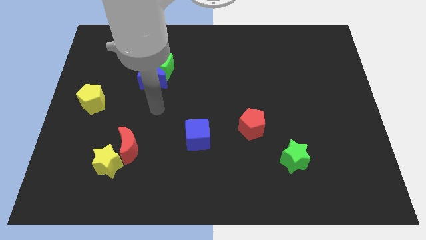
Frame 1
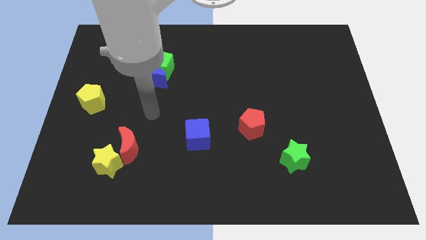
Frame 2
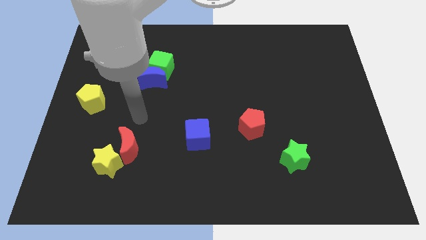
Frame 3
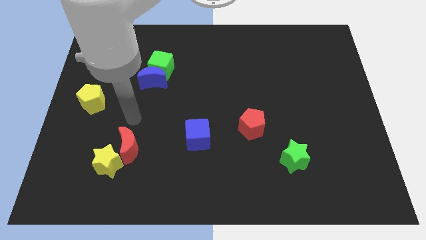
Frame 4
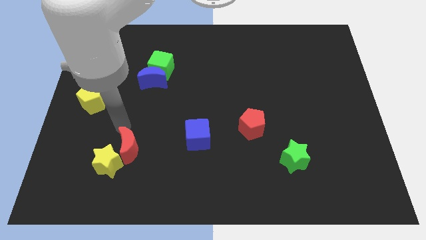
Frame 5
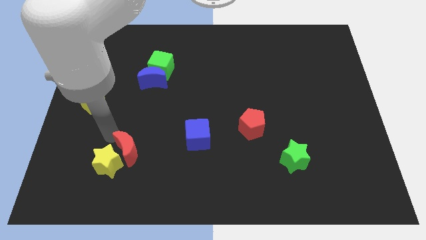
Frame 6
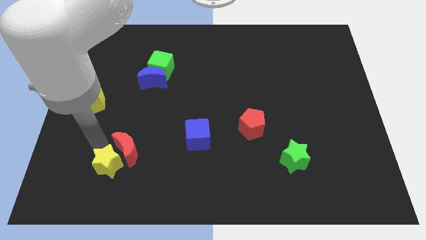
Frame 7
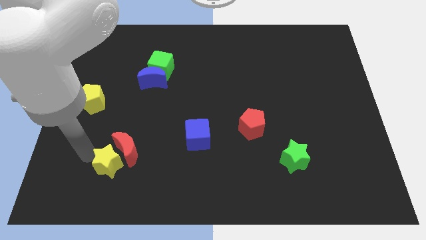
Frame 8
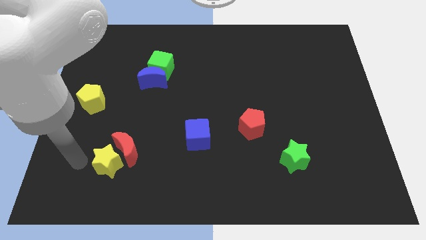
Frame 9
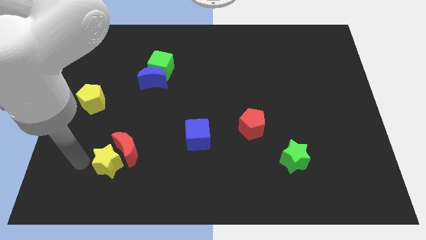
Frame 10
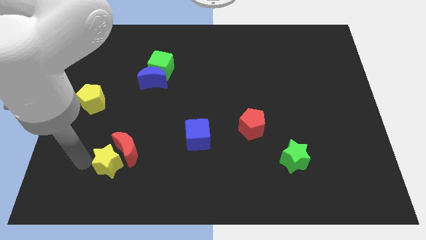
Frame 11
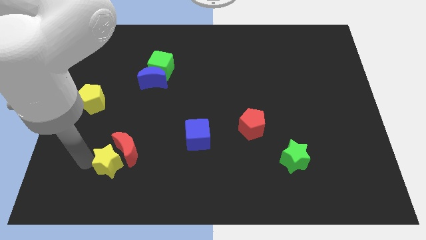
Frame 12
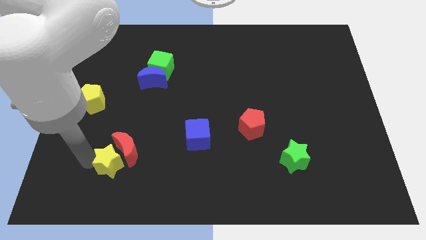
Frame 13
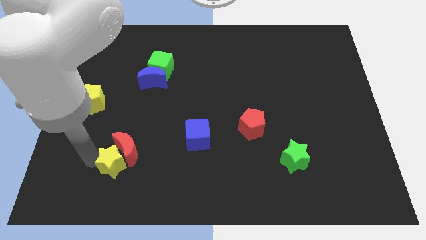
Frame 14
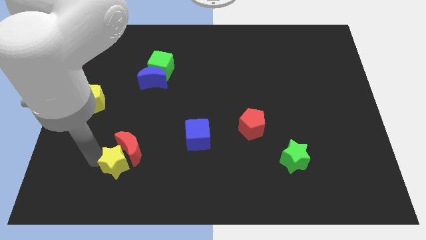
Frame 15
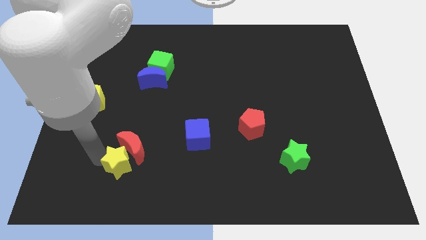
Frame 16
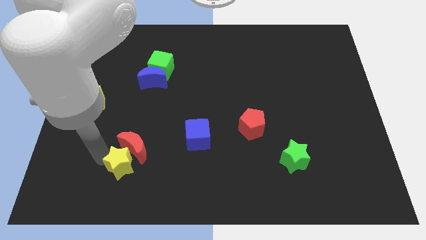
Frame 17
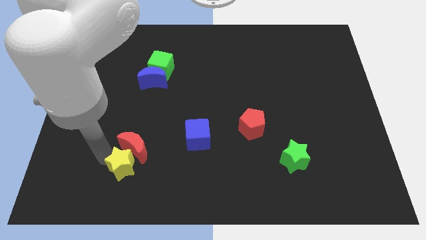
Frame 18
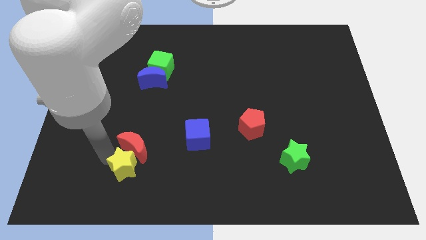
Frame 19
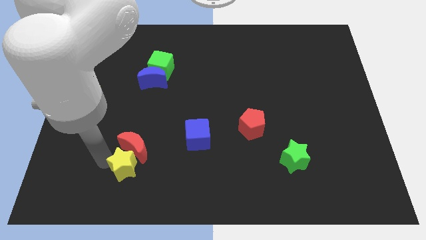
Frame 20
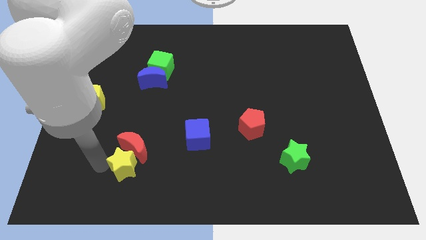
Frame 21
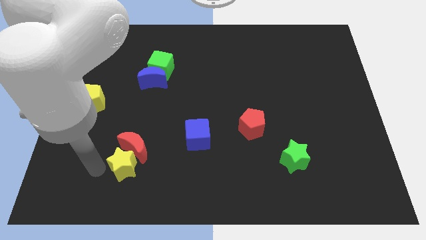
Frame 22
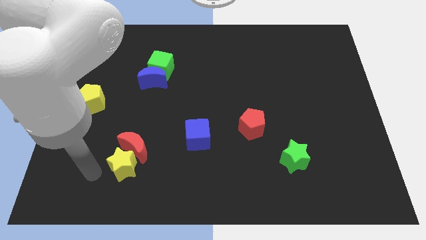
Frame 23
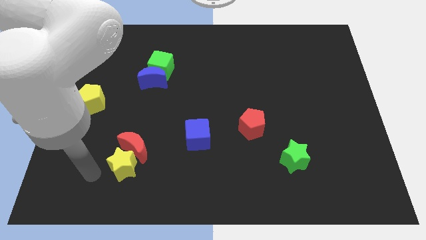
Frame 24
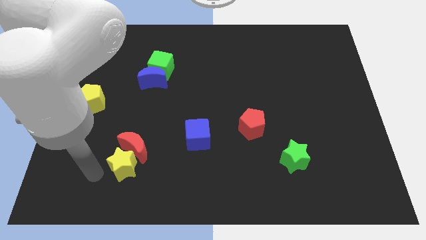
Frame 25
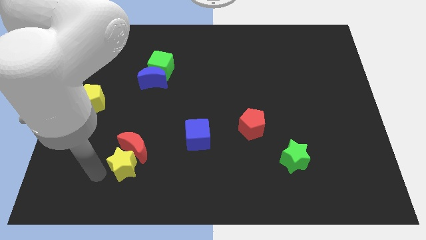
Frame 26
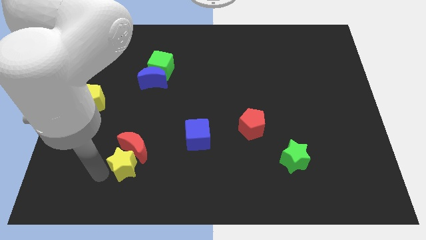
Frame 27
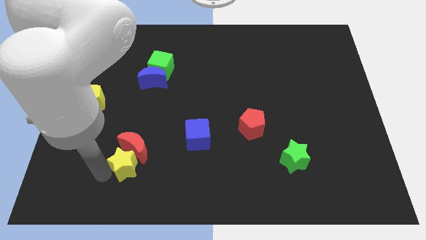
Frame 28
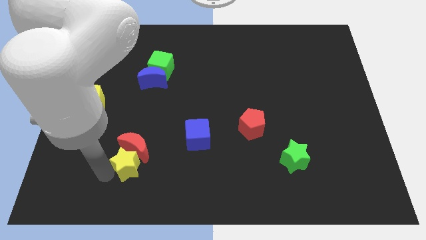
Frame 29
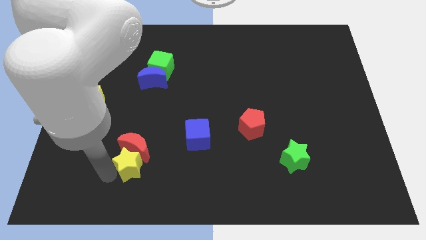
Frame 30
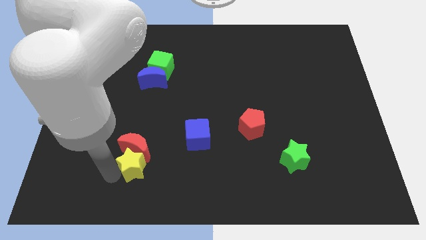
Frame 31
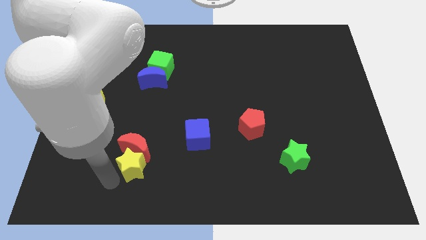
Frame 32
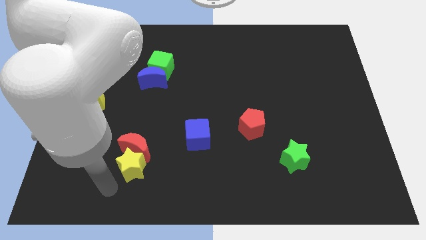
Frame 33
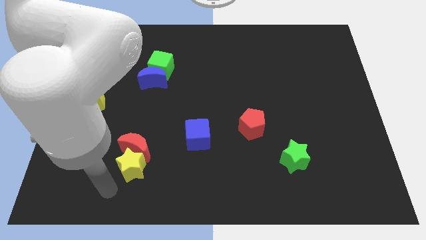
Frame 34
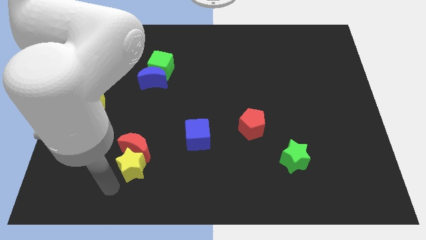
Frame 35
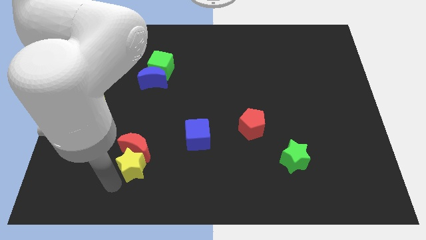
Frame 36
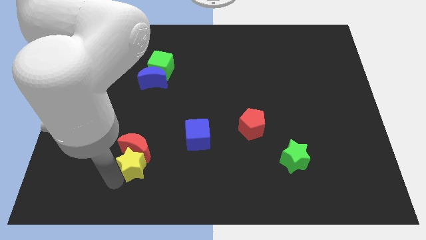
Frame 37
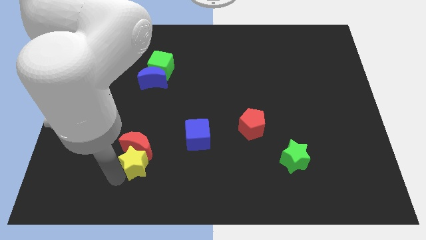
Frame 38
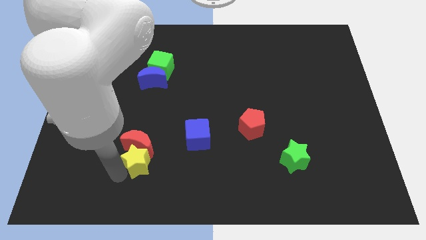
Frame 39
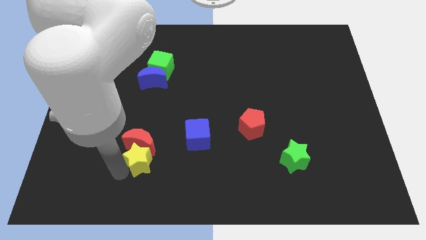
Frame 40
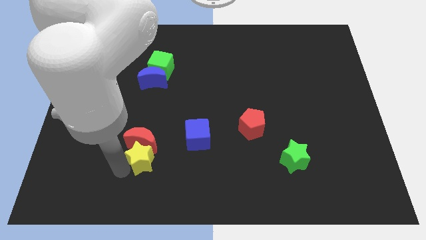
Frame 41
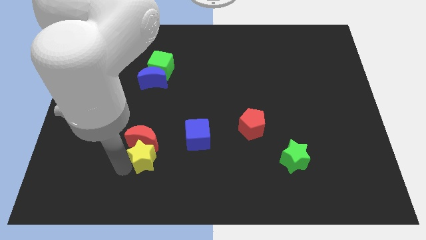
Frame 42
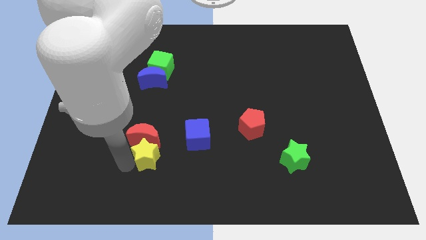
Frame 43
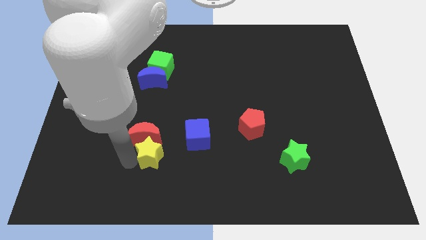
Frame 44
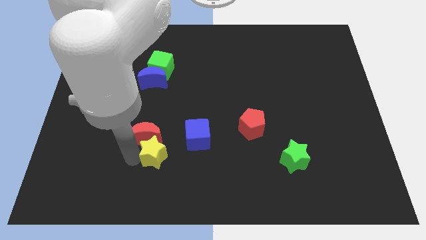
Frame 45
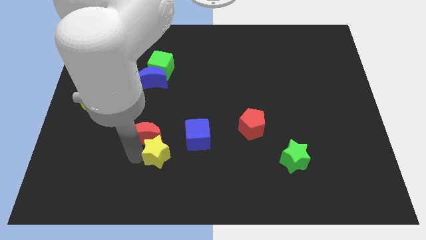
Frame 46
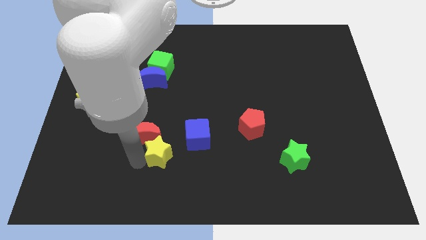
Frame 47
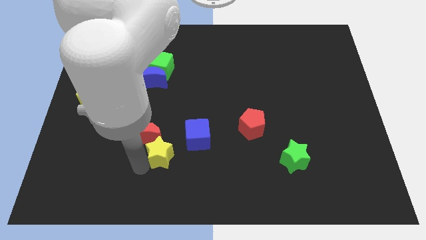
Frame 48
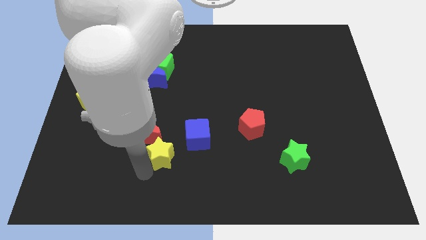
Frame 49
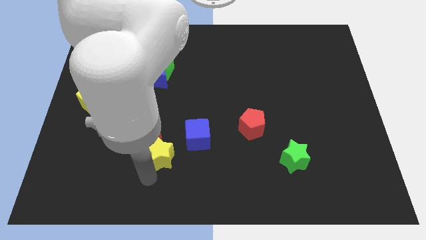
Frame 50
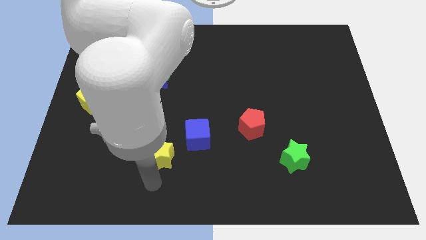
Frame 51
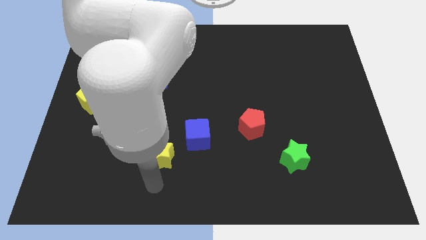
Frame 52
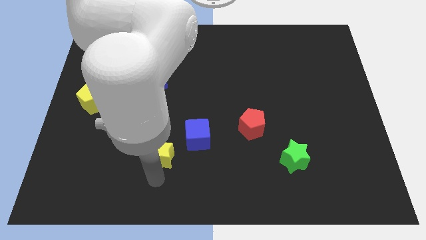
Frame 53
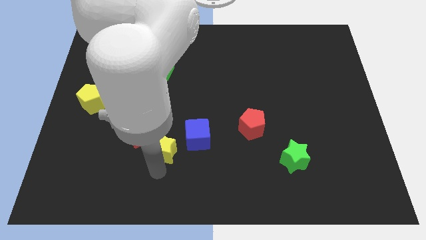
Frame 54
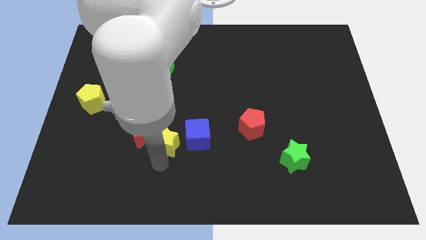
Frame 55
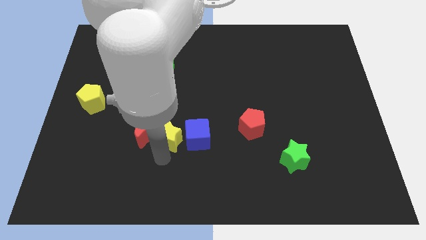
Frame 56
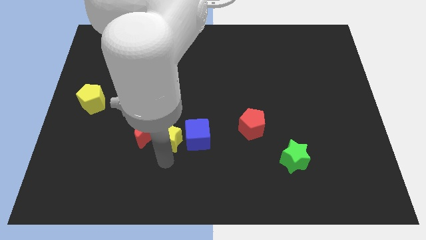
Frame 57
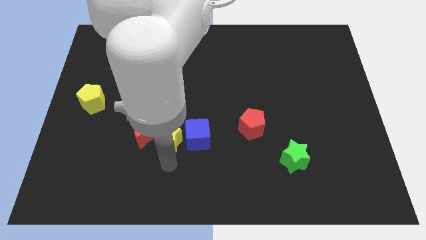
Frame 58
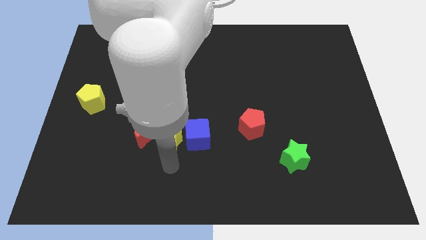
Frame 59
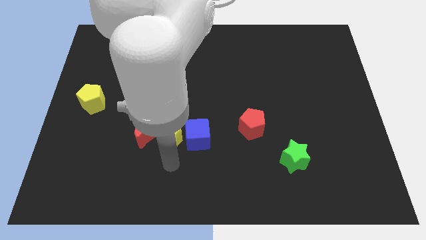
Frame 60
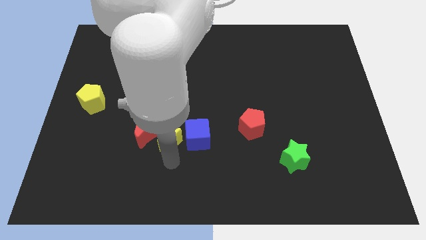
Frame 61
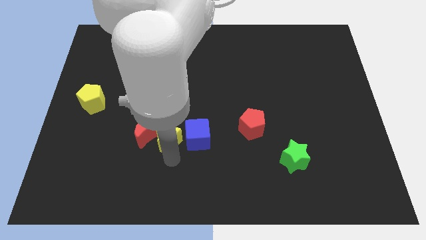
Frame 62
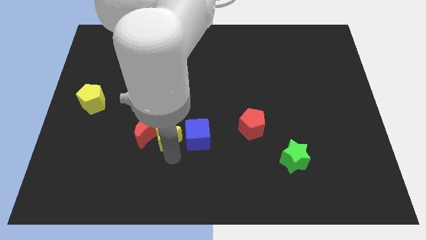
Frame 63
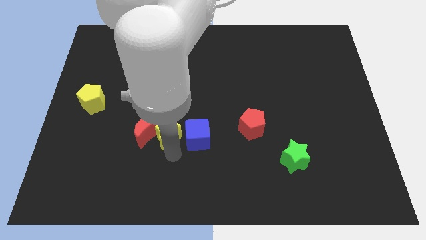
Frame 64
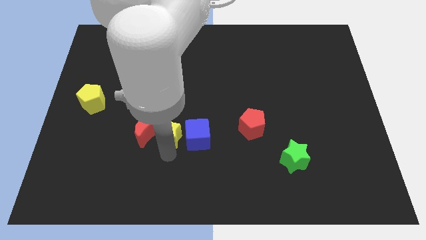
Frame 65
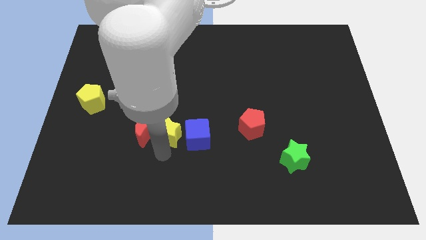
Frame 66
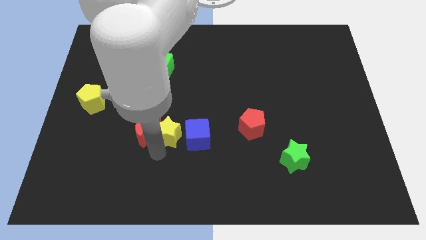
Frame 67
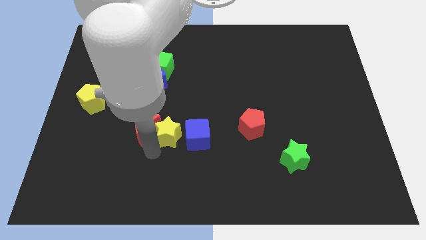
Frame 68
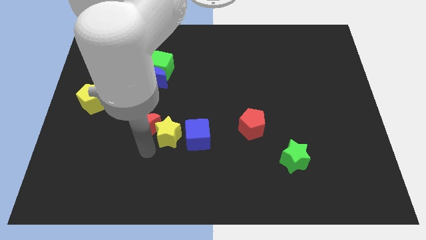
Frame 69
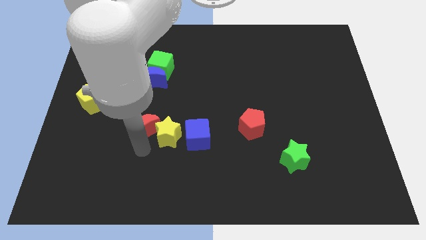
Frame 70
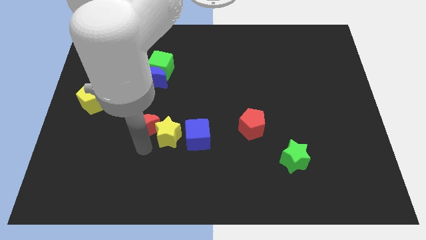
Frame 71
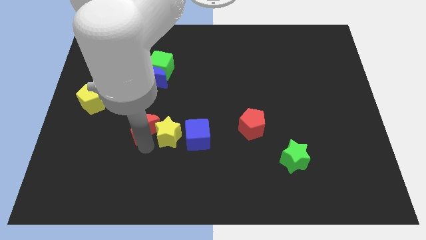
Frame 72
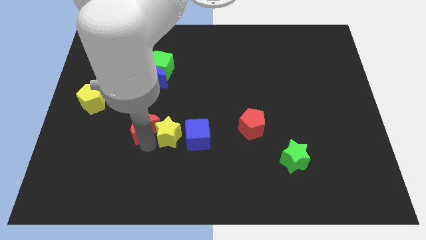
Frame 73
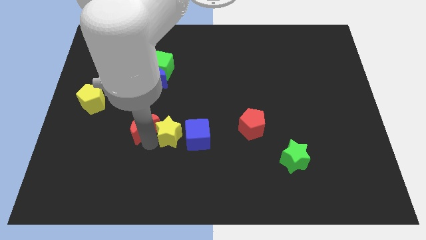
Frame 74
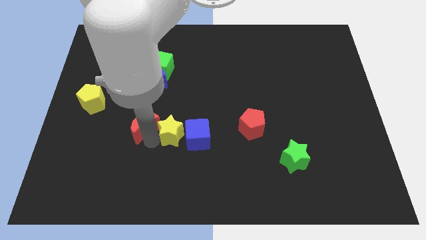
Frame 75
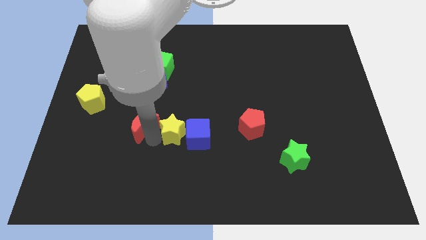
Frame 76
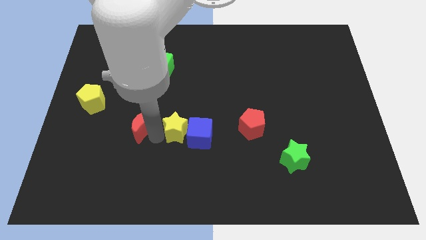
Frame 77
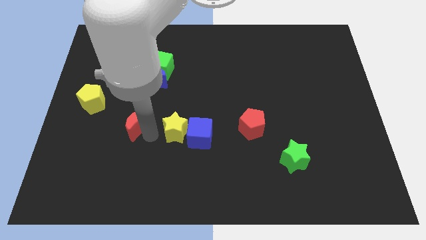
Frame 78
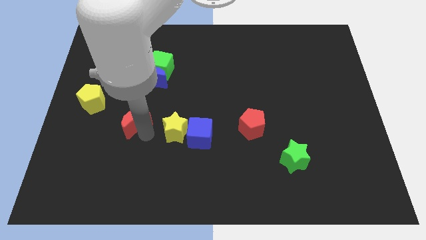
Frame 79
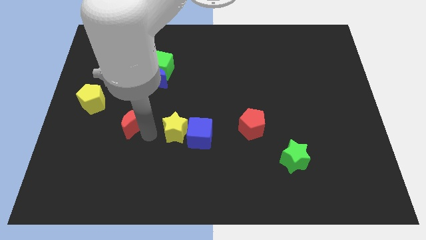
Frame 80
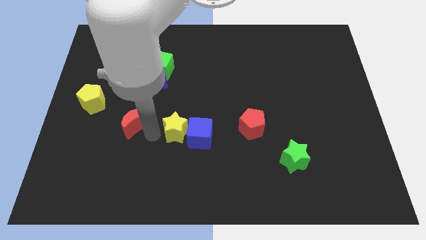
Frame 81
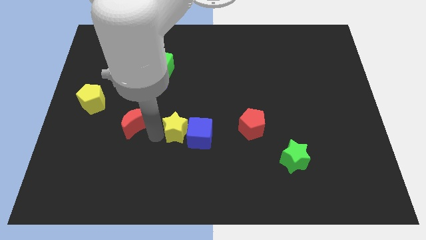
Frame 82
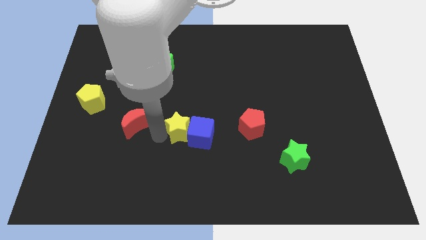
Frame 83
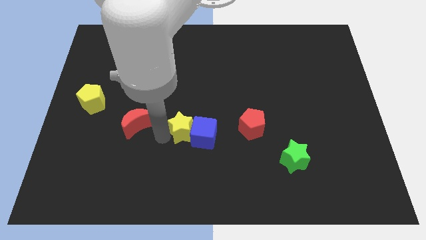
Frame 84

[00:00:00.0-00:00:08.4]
slide the yellow star just left of the red pentagon
